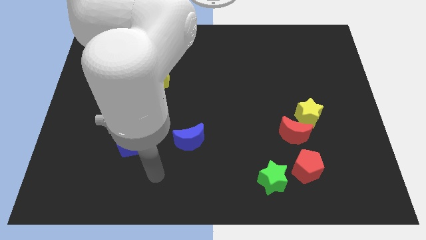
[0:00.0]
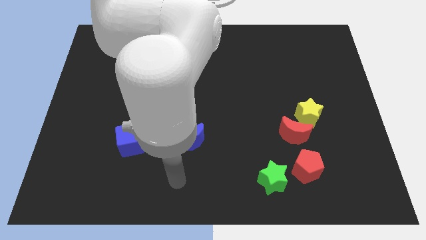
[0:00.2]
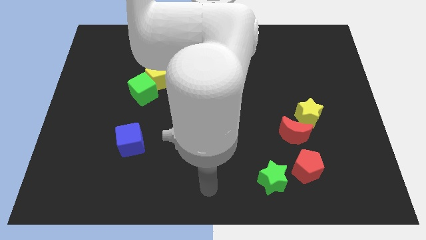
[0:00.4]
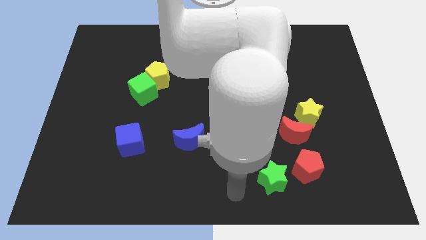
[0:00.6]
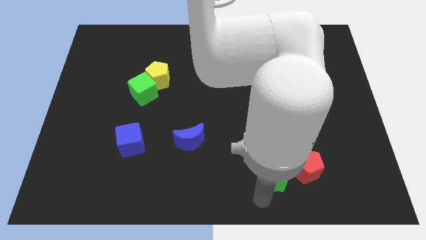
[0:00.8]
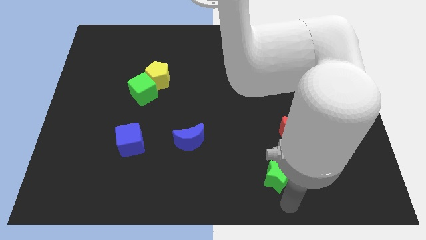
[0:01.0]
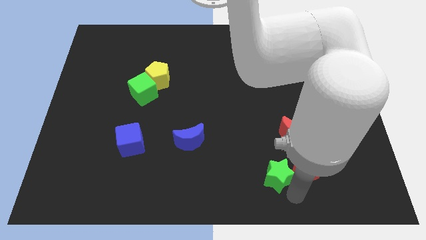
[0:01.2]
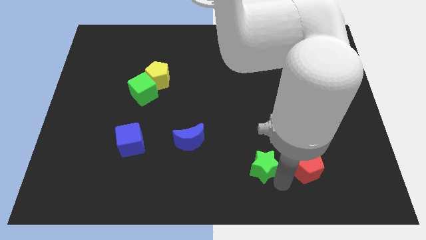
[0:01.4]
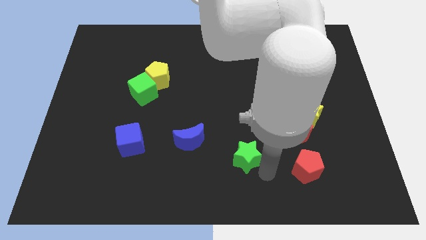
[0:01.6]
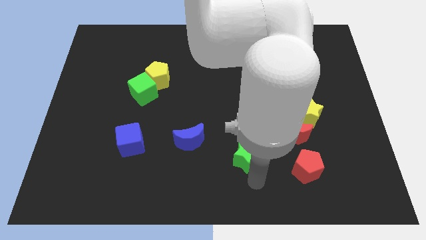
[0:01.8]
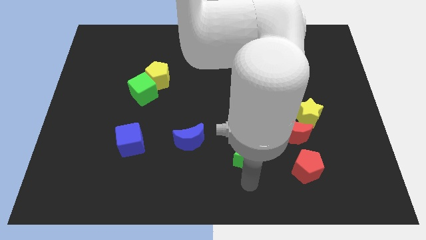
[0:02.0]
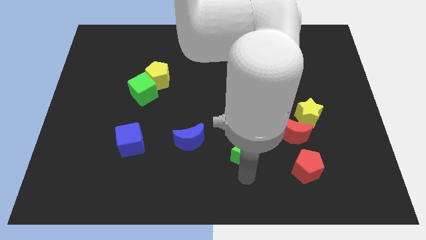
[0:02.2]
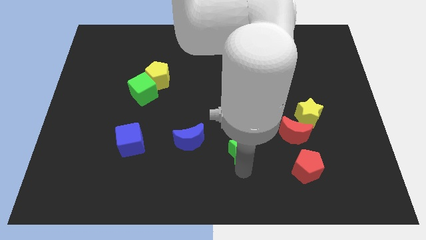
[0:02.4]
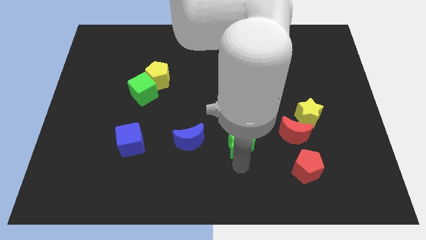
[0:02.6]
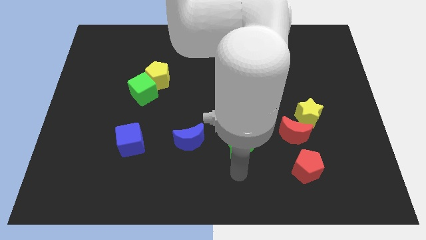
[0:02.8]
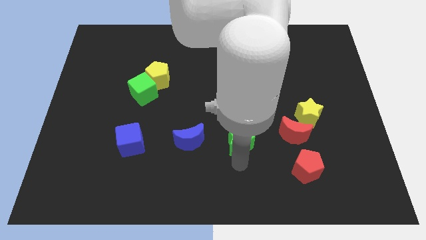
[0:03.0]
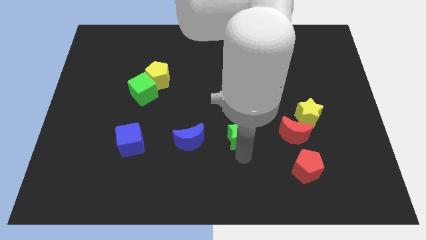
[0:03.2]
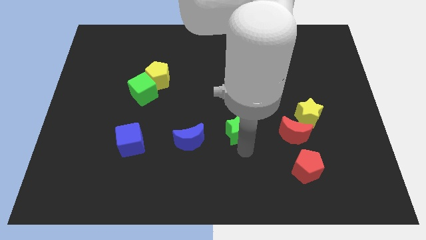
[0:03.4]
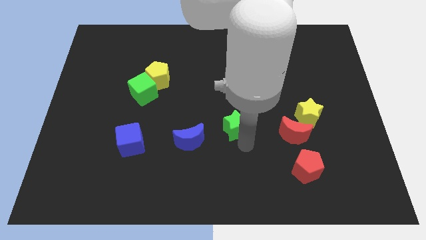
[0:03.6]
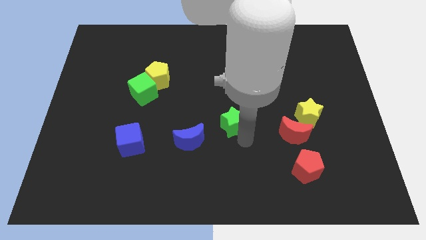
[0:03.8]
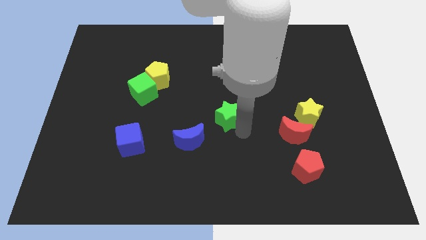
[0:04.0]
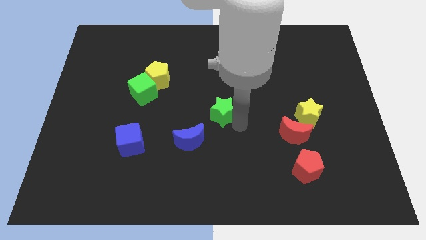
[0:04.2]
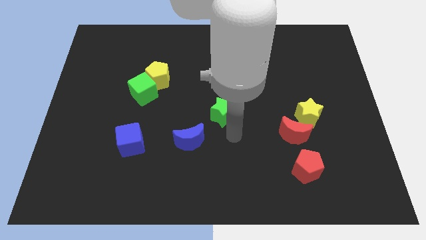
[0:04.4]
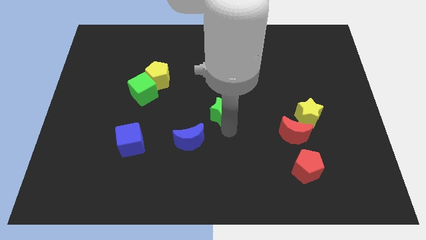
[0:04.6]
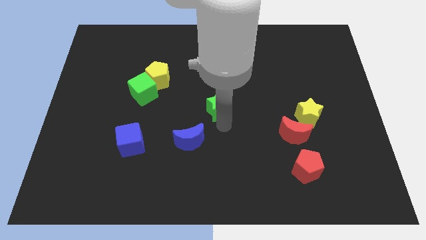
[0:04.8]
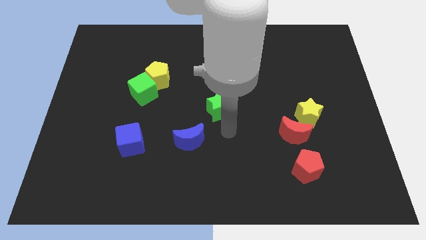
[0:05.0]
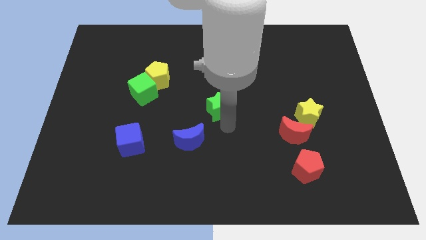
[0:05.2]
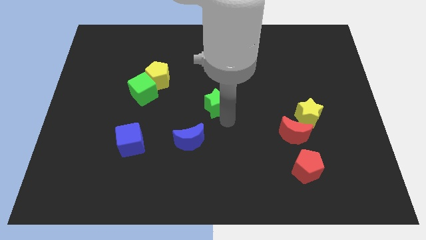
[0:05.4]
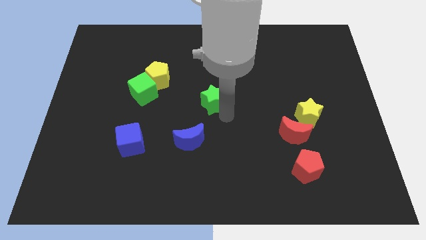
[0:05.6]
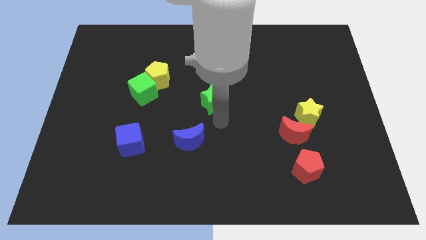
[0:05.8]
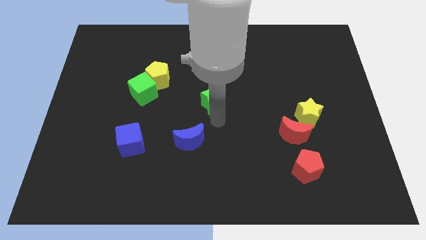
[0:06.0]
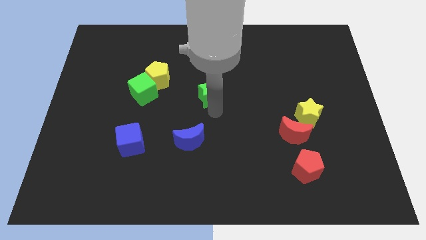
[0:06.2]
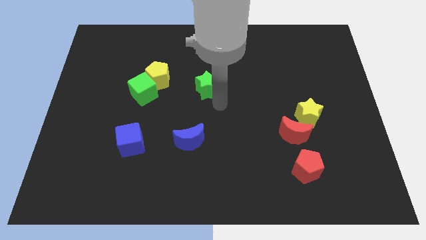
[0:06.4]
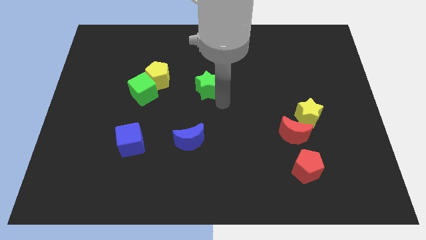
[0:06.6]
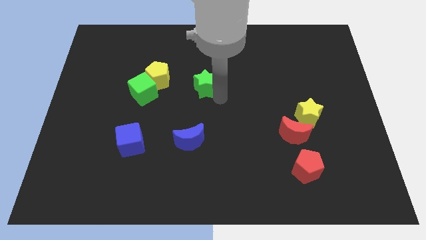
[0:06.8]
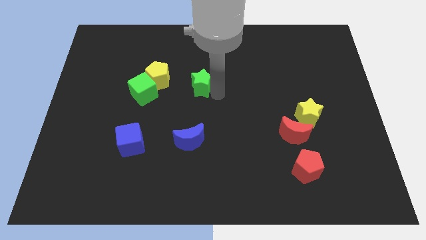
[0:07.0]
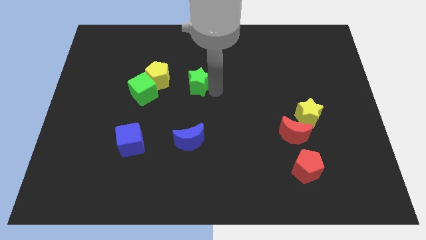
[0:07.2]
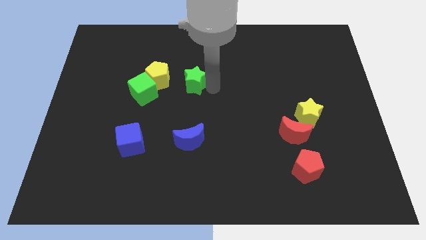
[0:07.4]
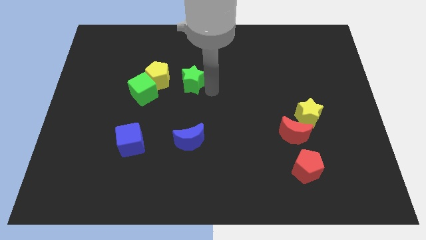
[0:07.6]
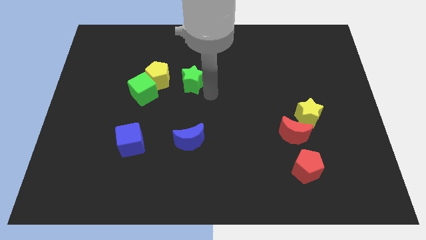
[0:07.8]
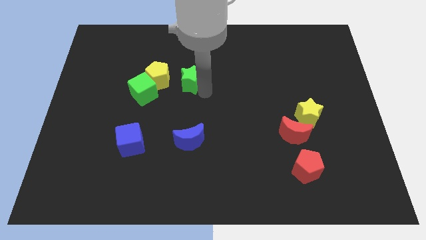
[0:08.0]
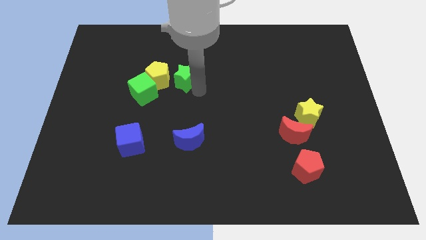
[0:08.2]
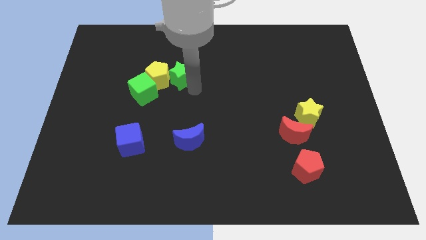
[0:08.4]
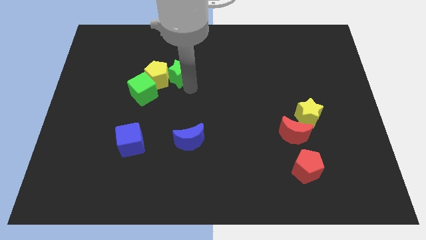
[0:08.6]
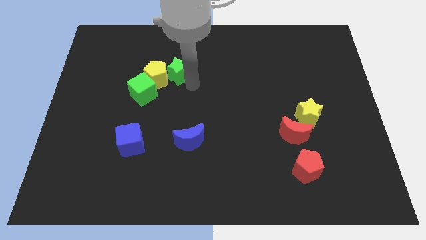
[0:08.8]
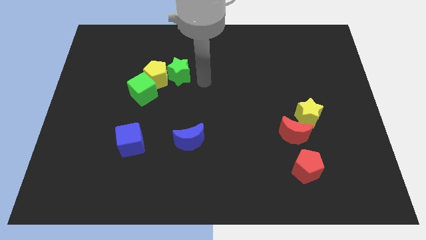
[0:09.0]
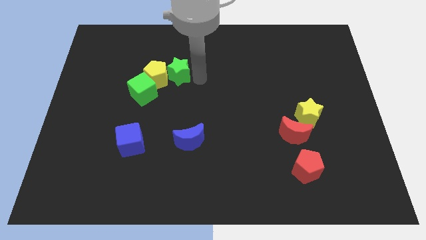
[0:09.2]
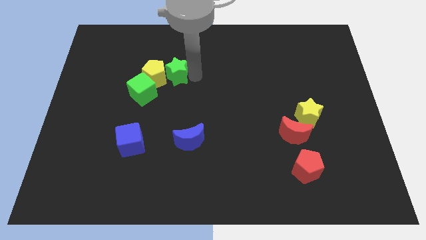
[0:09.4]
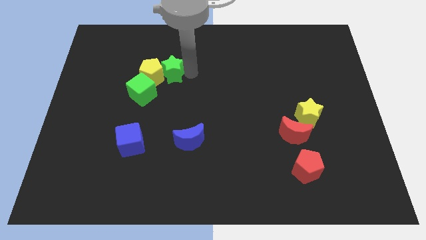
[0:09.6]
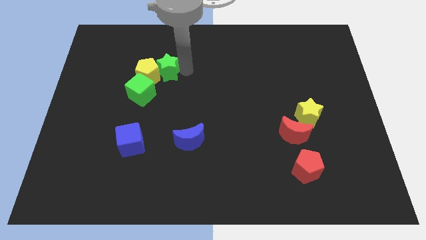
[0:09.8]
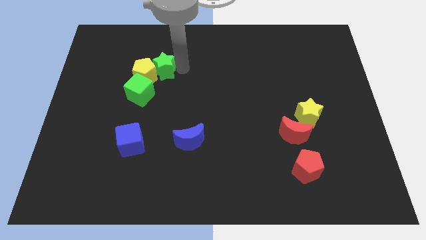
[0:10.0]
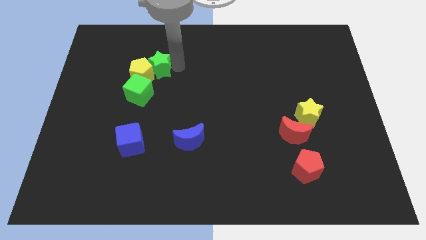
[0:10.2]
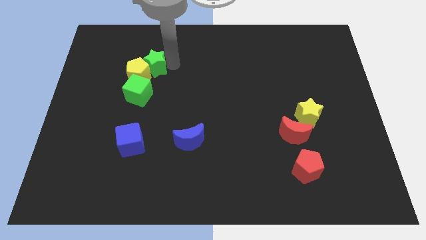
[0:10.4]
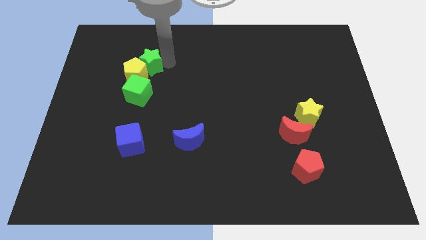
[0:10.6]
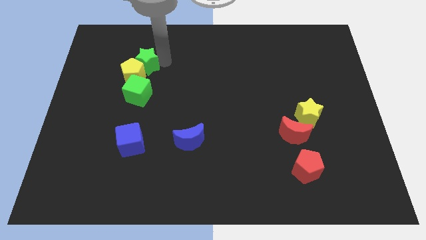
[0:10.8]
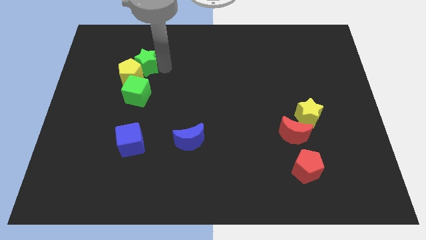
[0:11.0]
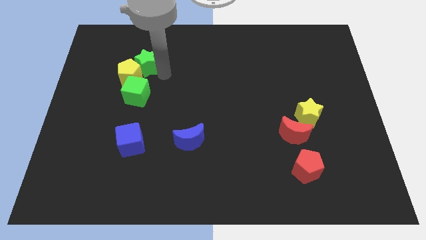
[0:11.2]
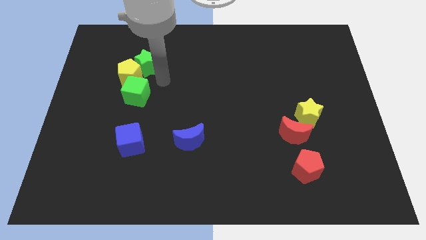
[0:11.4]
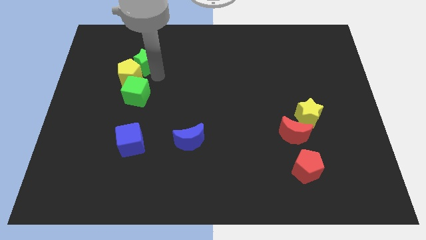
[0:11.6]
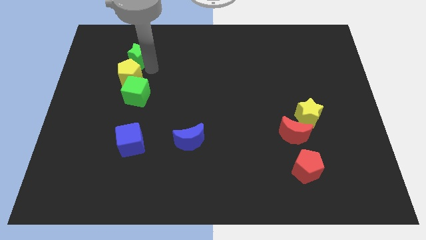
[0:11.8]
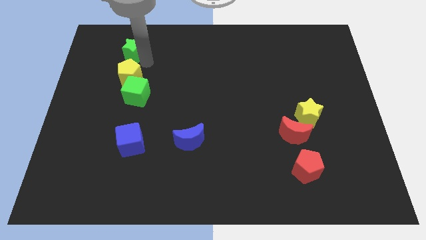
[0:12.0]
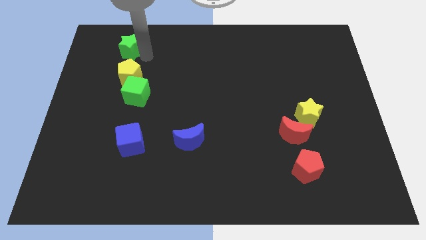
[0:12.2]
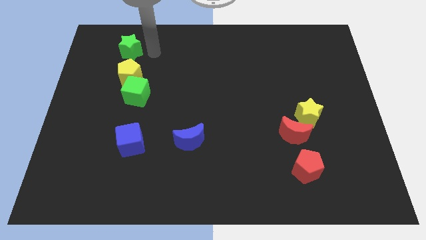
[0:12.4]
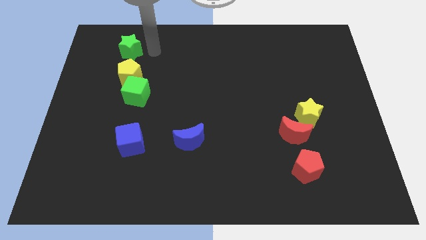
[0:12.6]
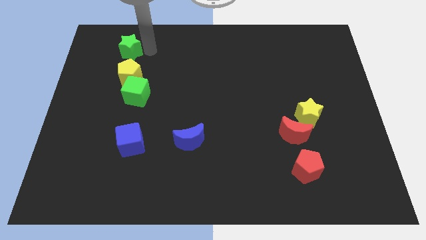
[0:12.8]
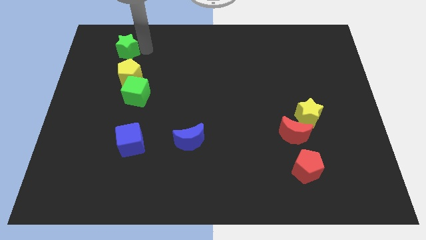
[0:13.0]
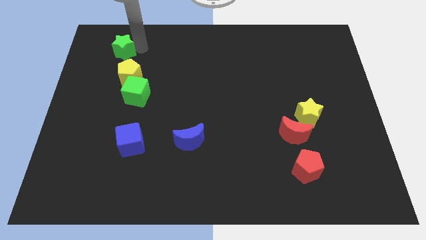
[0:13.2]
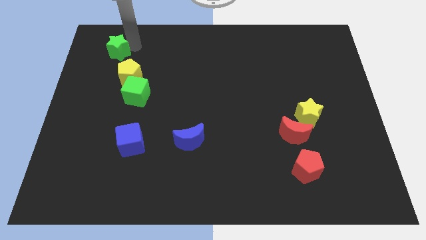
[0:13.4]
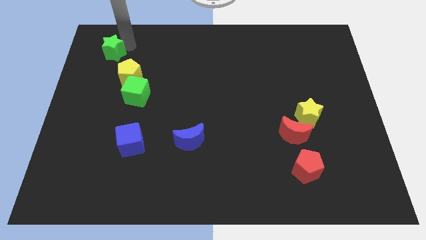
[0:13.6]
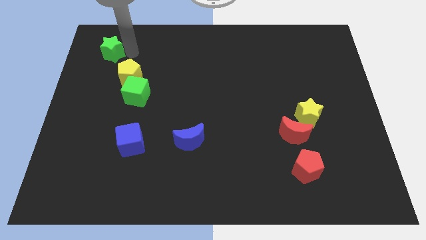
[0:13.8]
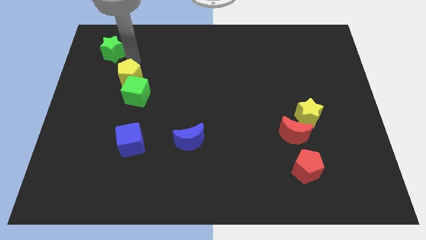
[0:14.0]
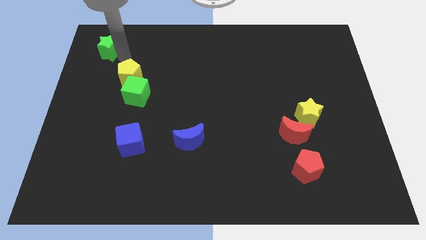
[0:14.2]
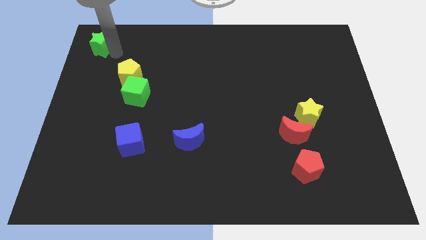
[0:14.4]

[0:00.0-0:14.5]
slide the green star to the upper left corner
